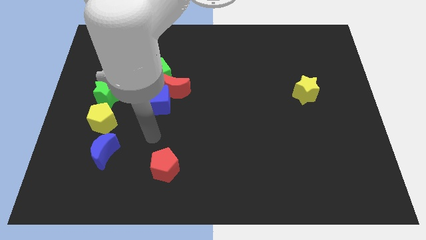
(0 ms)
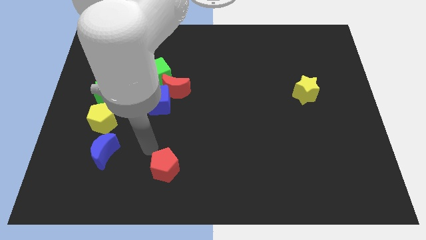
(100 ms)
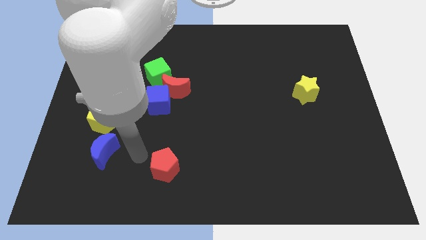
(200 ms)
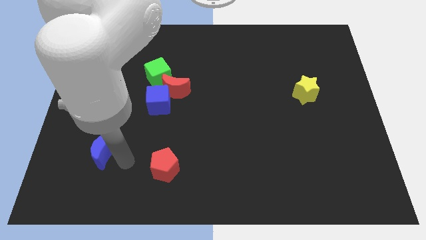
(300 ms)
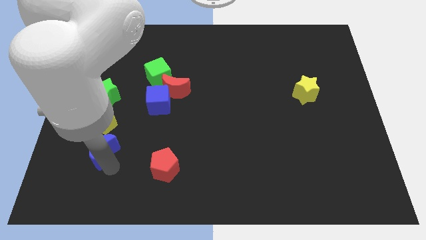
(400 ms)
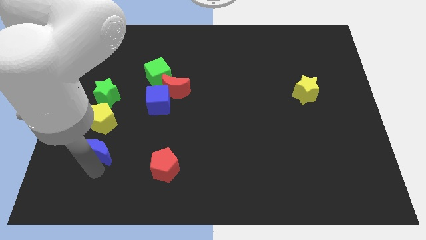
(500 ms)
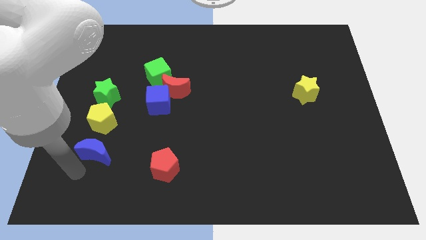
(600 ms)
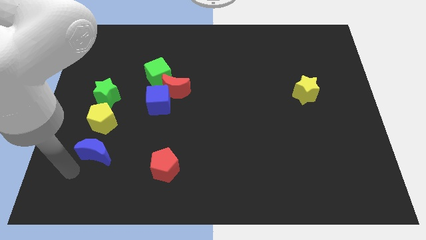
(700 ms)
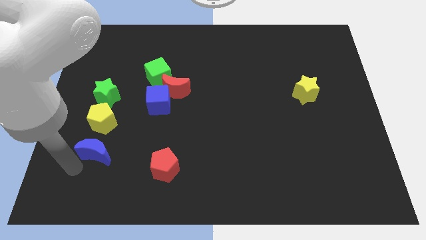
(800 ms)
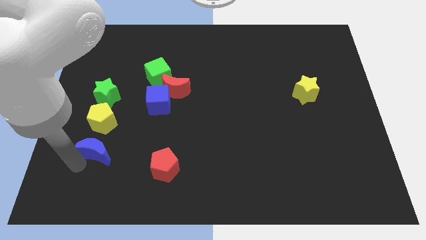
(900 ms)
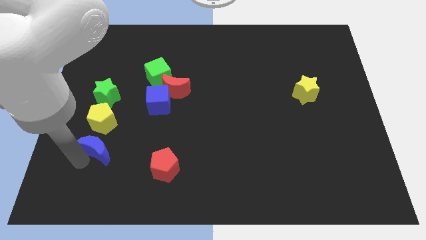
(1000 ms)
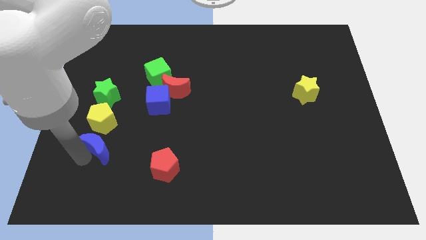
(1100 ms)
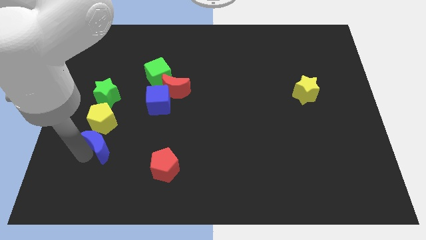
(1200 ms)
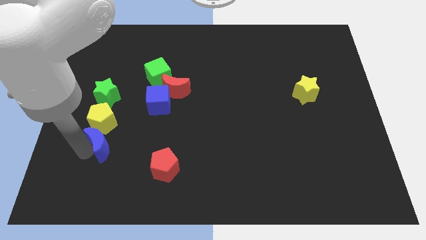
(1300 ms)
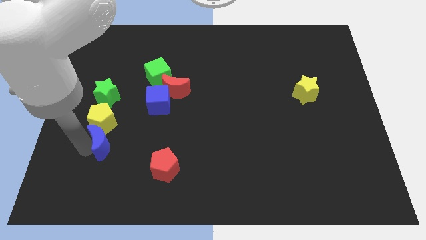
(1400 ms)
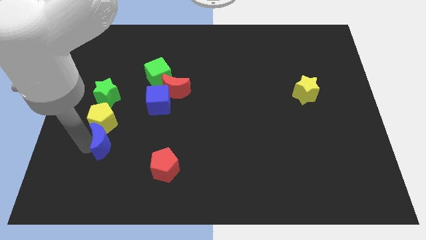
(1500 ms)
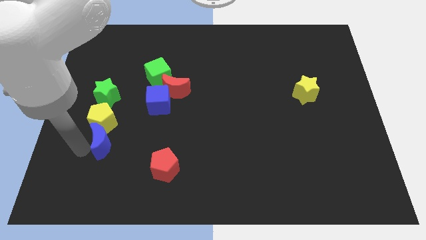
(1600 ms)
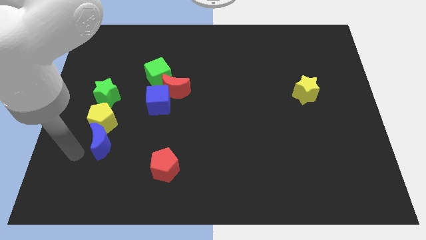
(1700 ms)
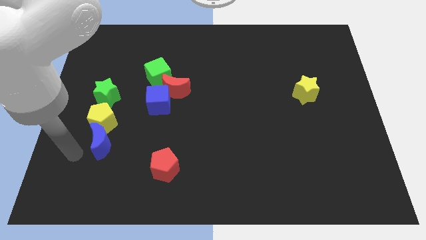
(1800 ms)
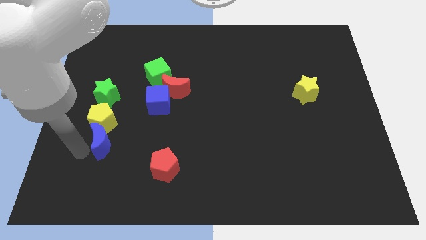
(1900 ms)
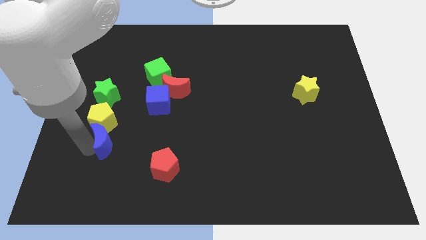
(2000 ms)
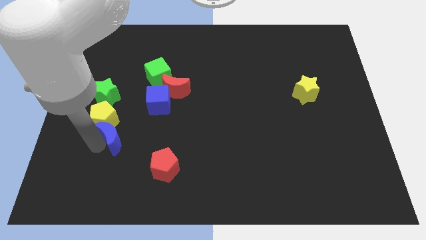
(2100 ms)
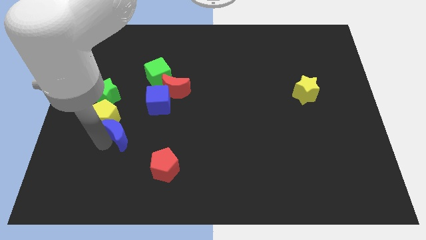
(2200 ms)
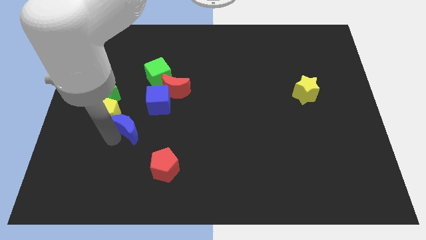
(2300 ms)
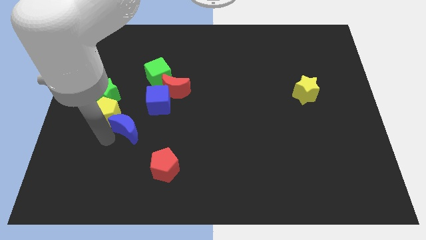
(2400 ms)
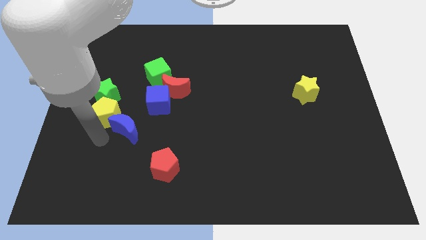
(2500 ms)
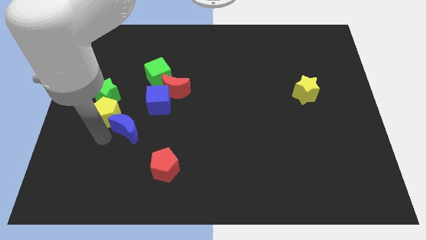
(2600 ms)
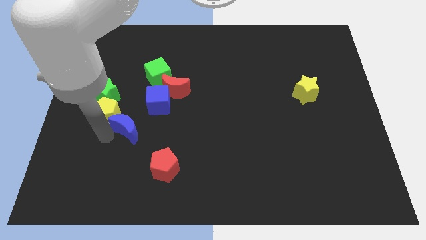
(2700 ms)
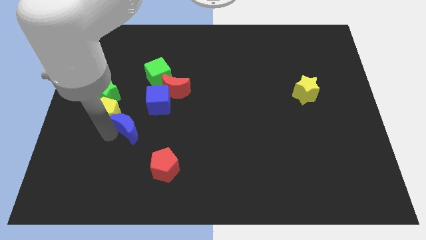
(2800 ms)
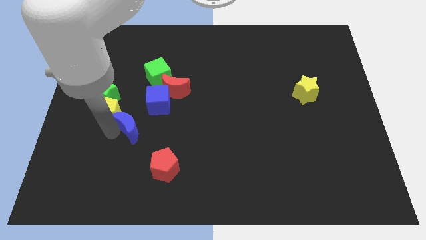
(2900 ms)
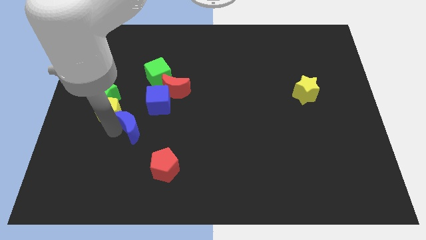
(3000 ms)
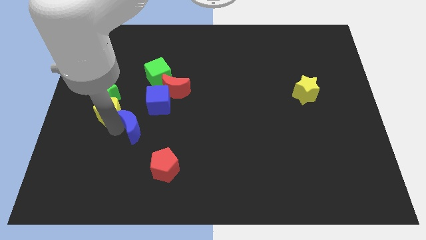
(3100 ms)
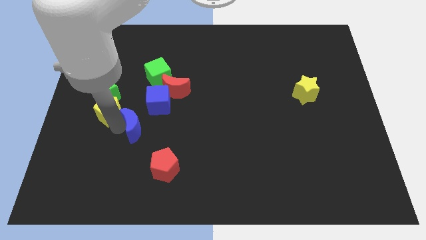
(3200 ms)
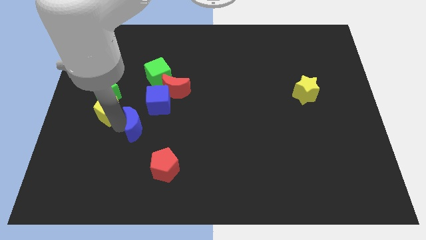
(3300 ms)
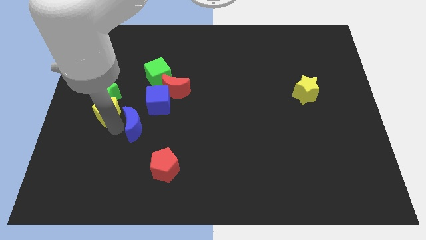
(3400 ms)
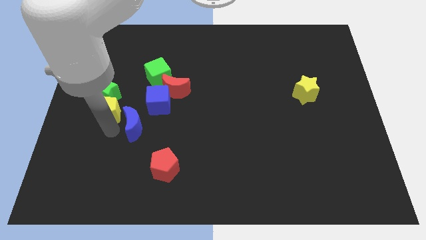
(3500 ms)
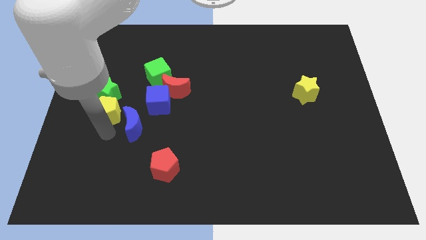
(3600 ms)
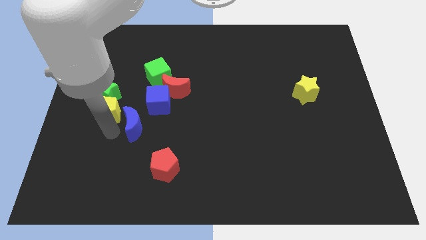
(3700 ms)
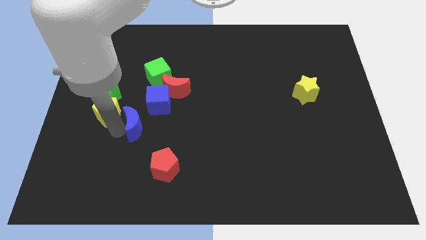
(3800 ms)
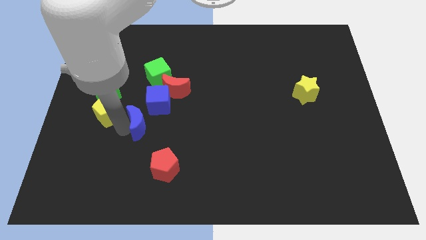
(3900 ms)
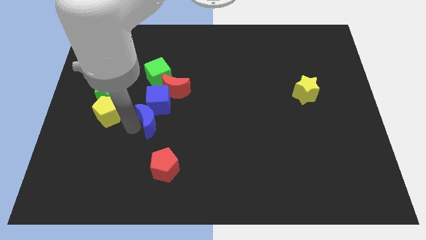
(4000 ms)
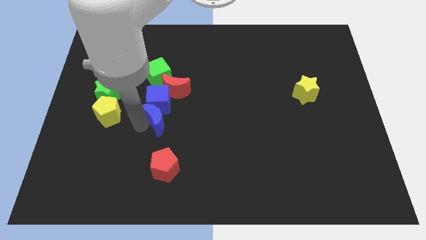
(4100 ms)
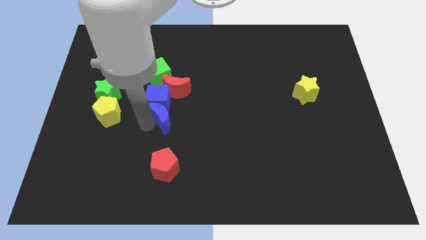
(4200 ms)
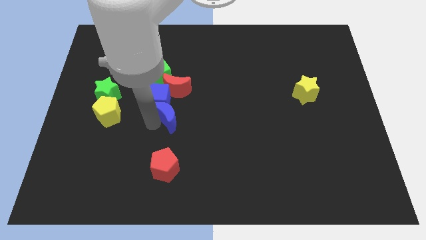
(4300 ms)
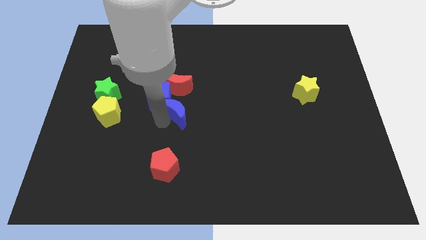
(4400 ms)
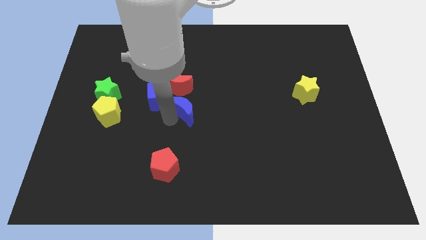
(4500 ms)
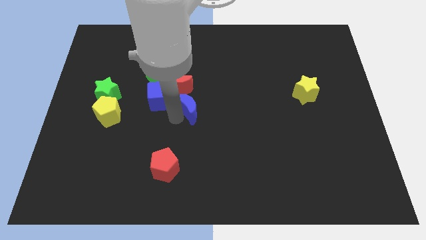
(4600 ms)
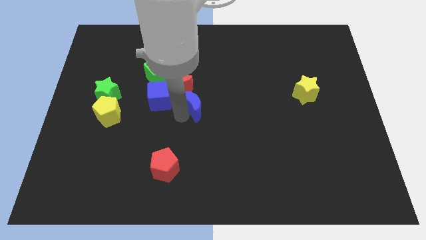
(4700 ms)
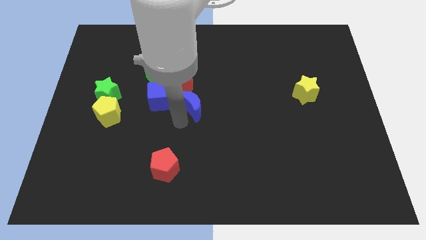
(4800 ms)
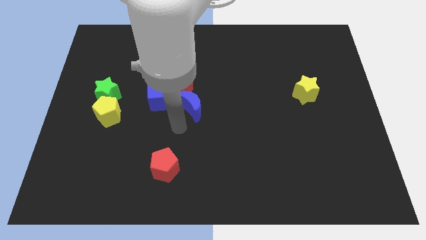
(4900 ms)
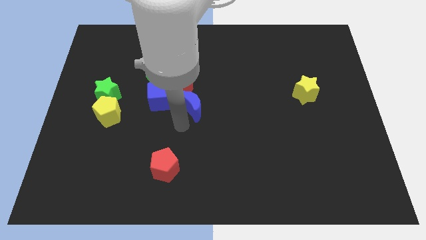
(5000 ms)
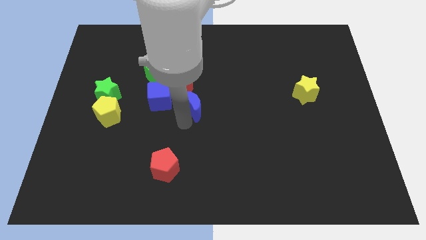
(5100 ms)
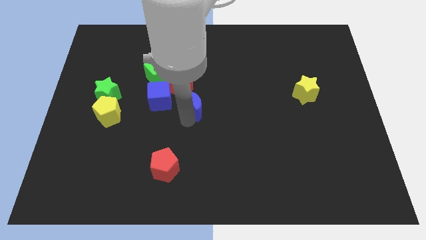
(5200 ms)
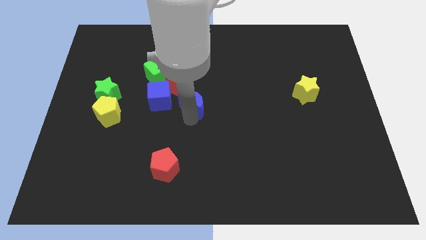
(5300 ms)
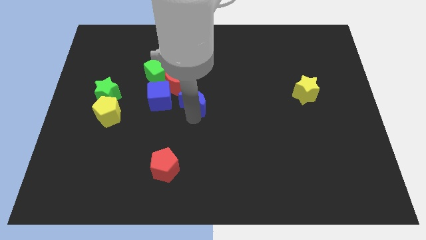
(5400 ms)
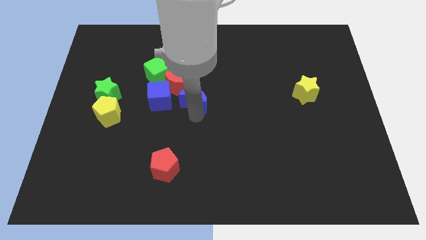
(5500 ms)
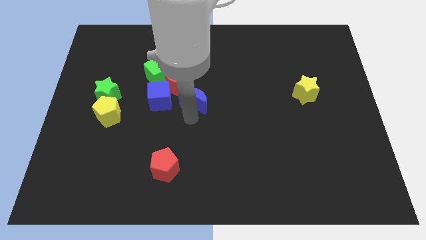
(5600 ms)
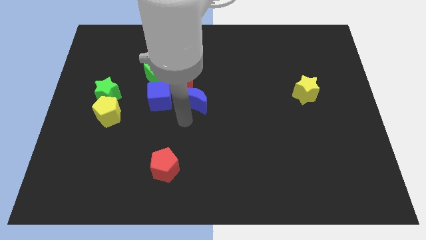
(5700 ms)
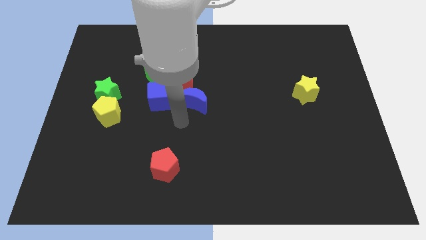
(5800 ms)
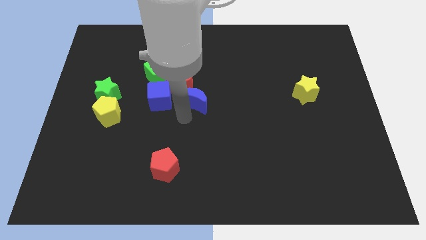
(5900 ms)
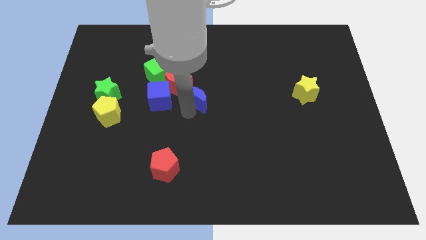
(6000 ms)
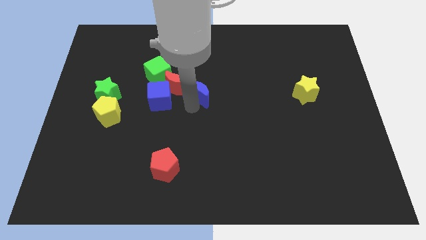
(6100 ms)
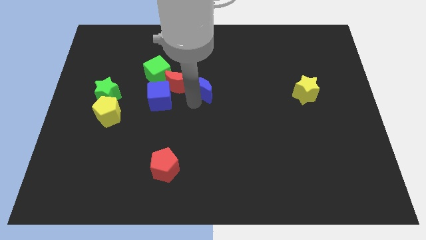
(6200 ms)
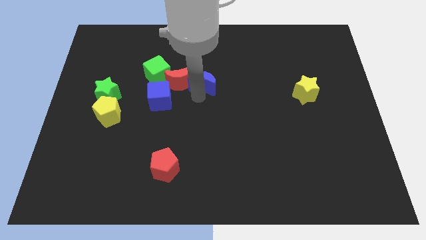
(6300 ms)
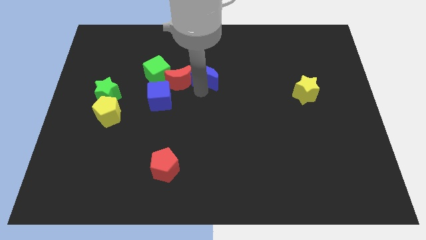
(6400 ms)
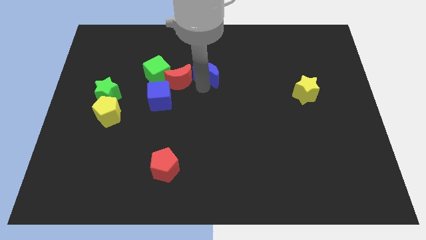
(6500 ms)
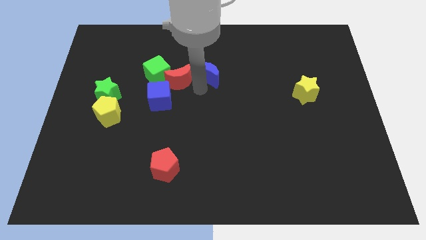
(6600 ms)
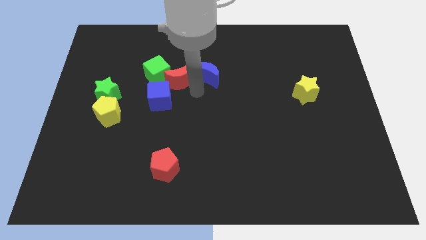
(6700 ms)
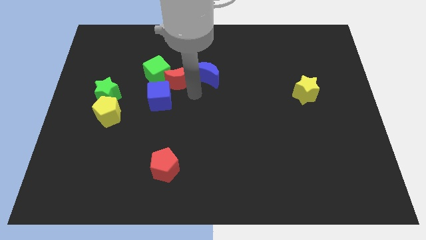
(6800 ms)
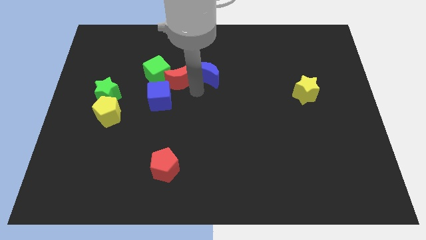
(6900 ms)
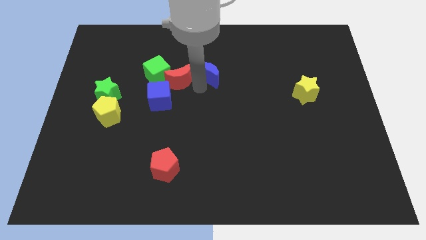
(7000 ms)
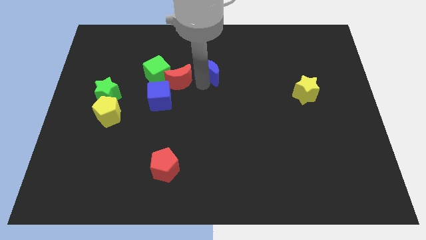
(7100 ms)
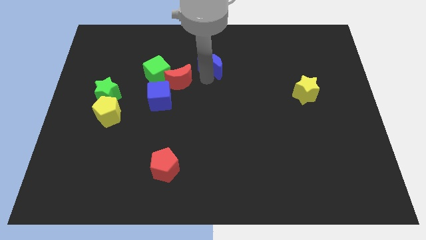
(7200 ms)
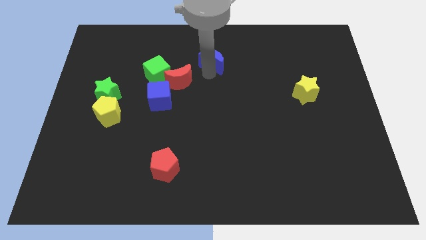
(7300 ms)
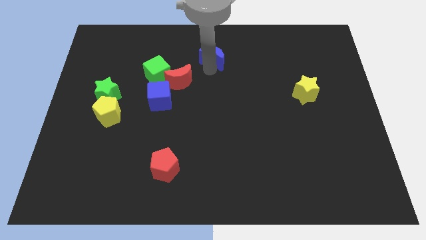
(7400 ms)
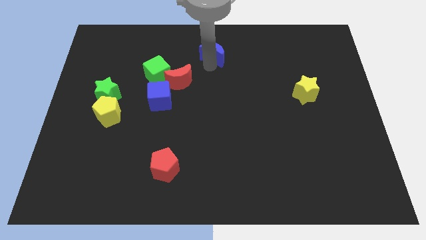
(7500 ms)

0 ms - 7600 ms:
put the blue moon to the towards your base
